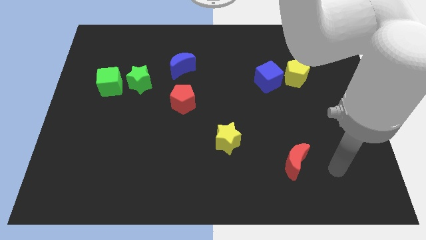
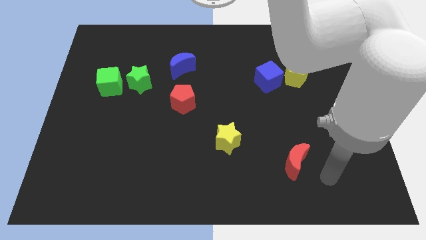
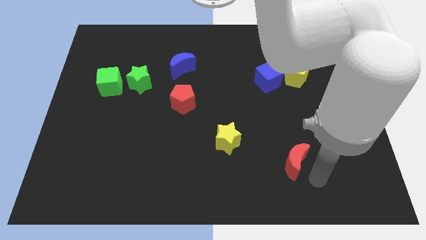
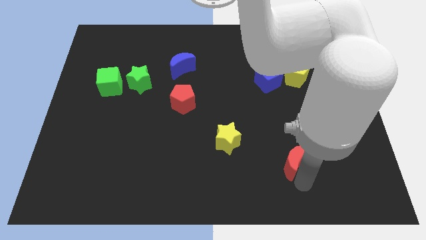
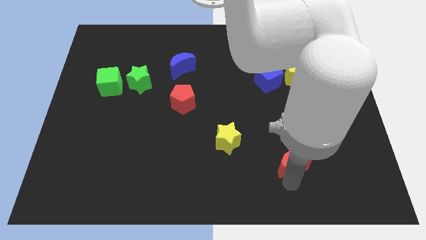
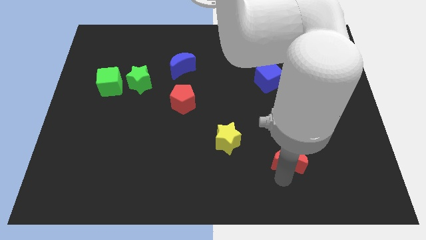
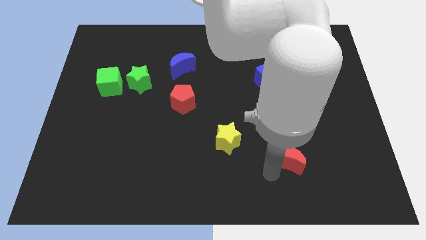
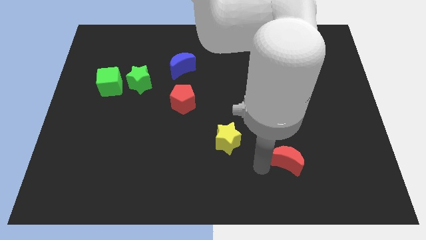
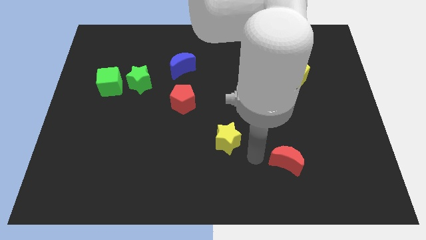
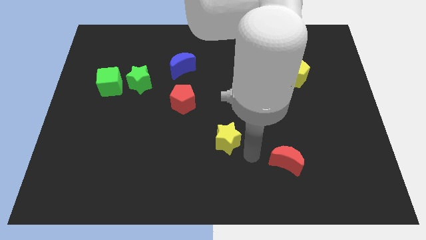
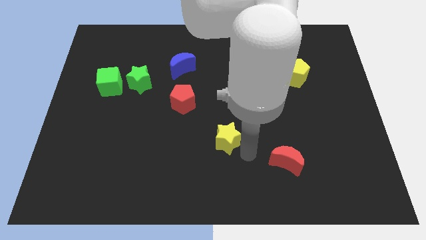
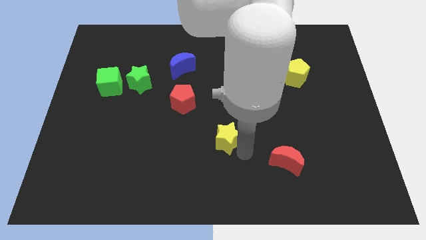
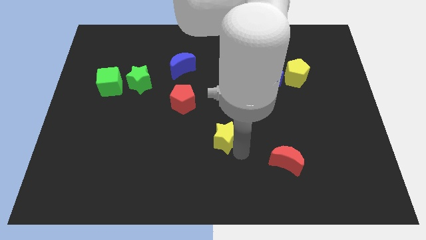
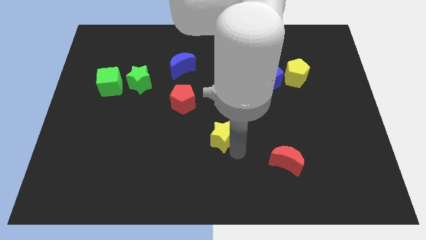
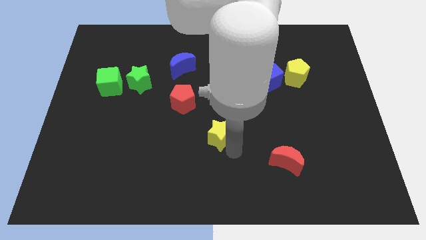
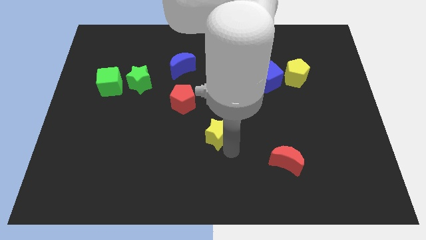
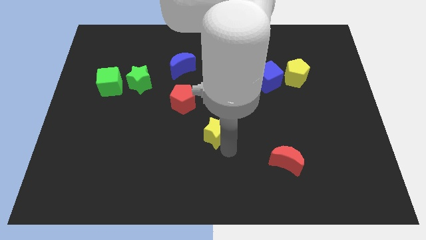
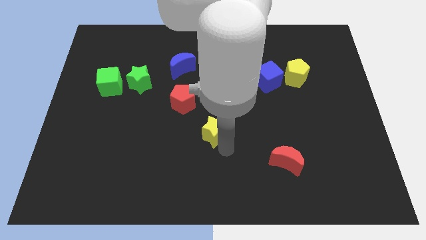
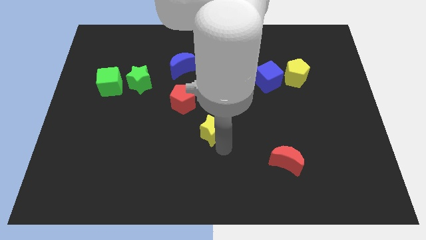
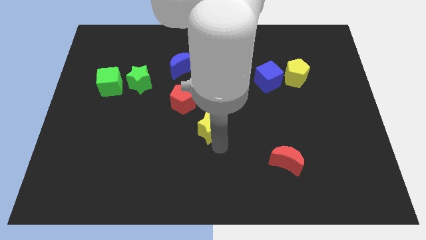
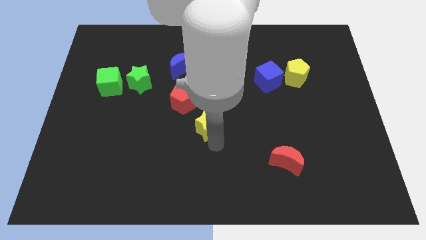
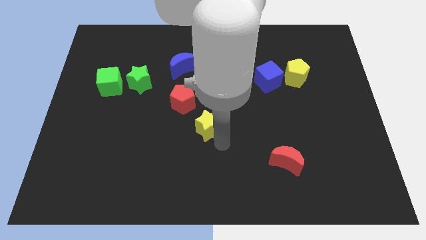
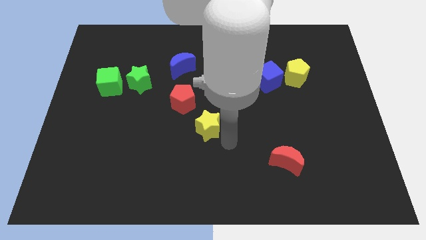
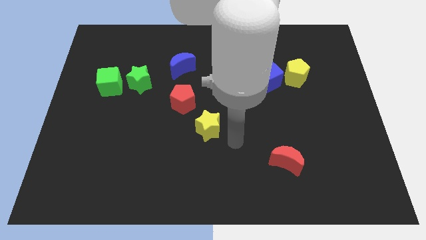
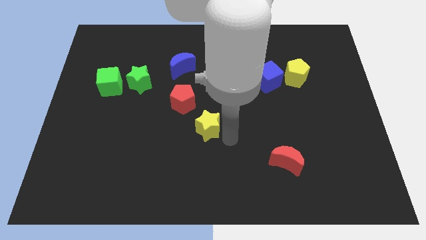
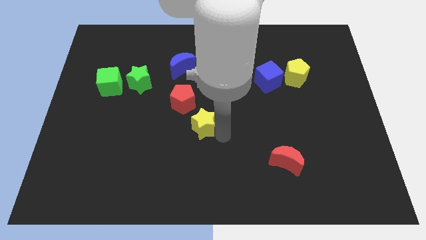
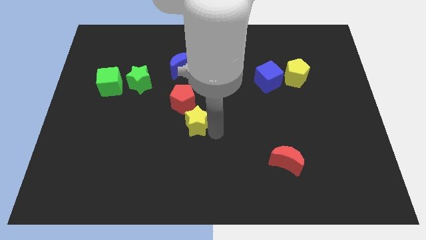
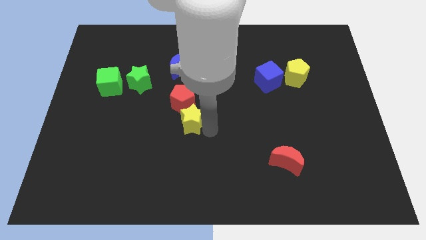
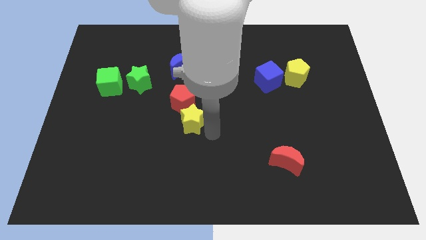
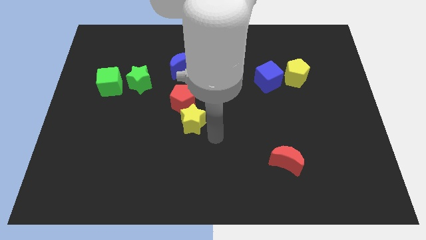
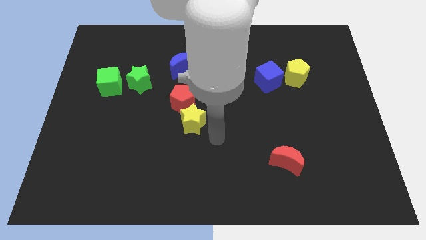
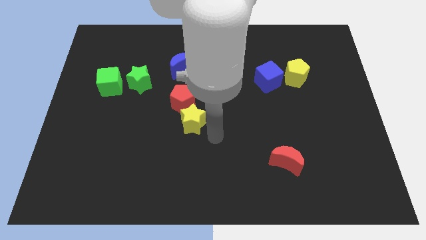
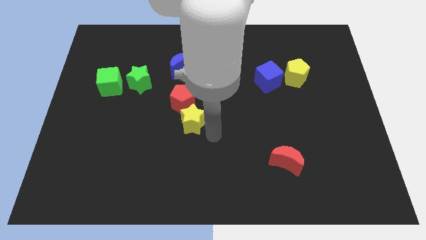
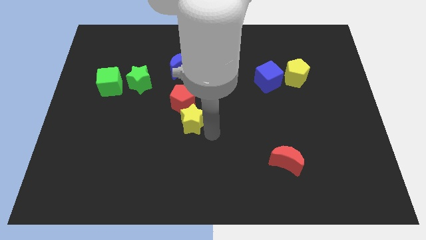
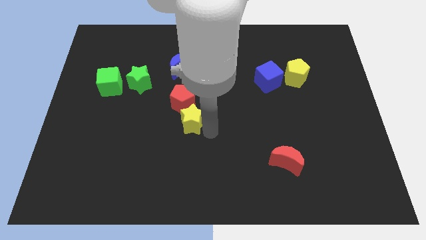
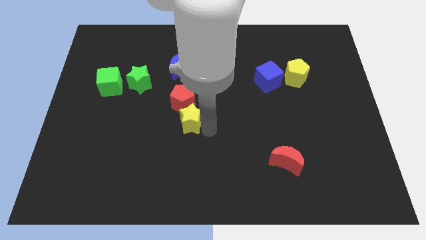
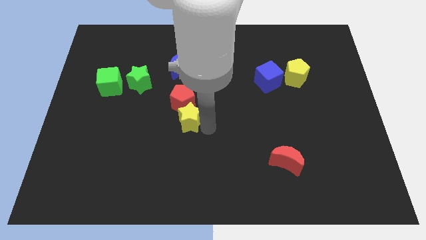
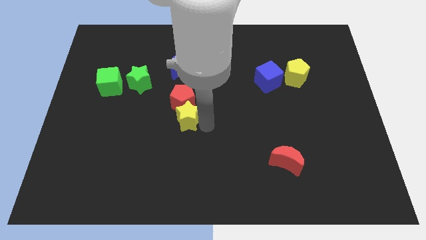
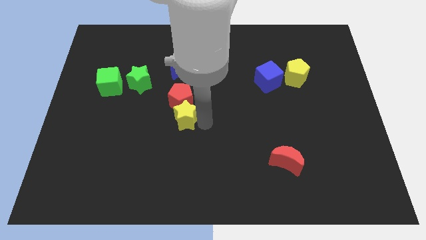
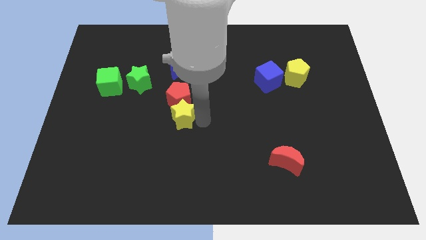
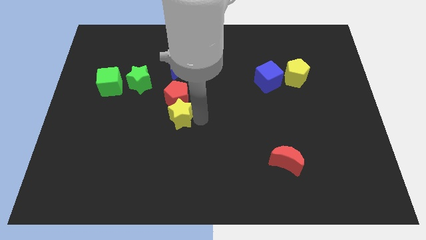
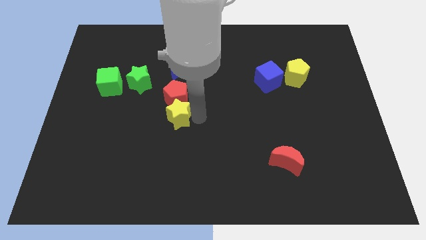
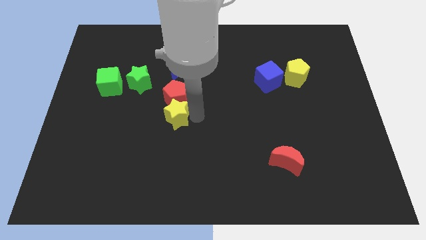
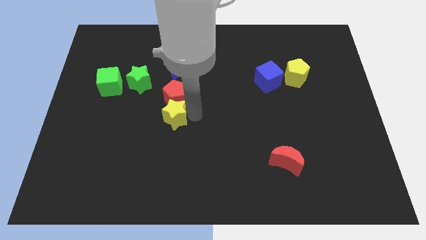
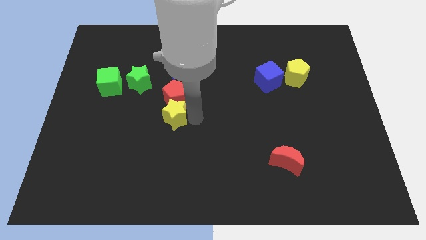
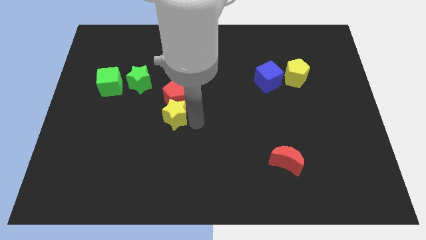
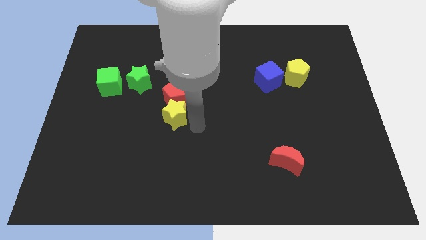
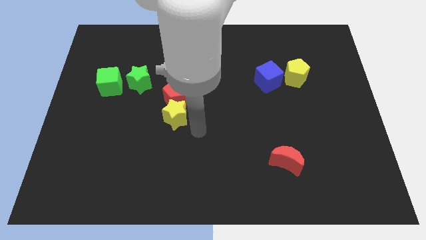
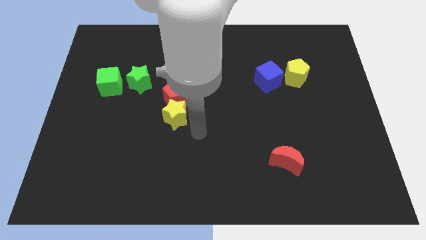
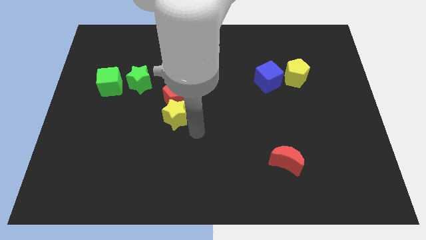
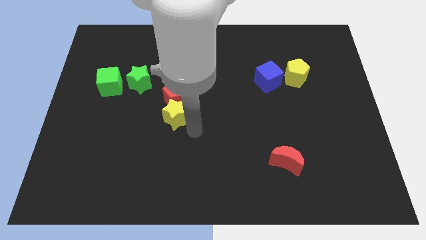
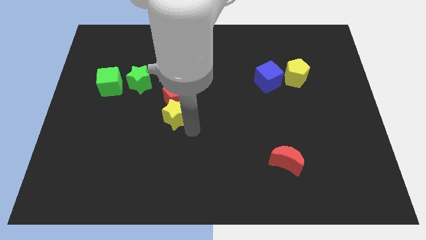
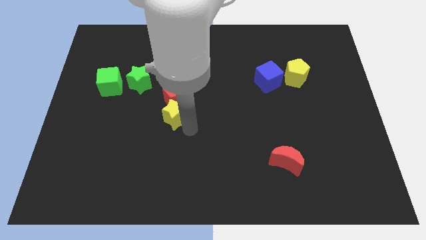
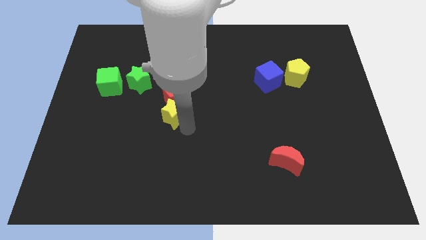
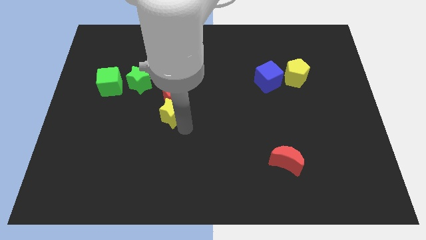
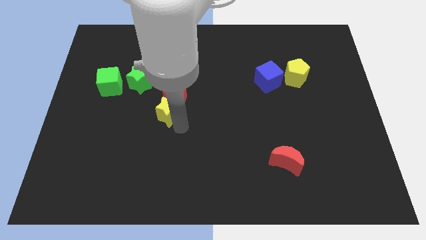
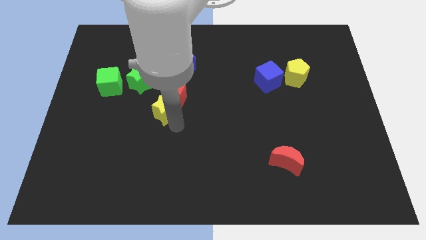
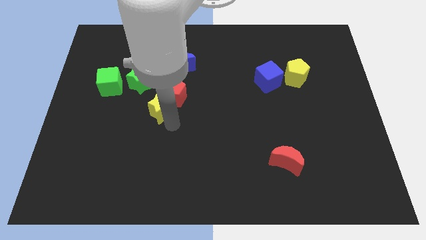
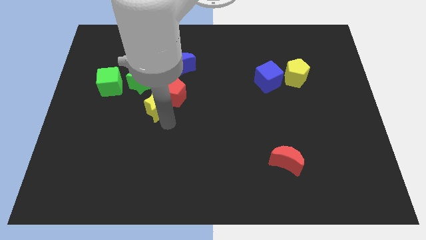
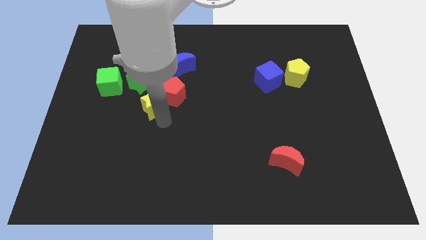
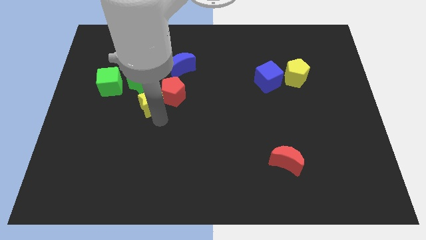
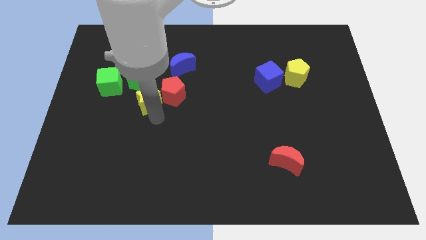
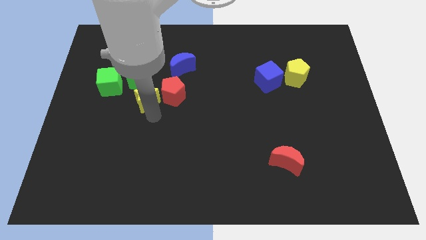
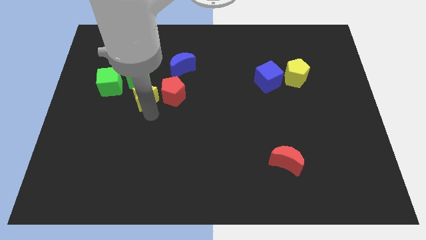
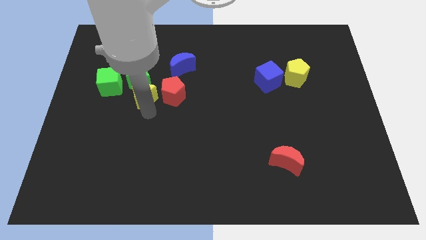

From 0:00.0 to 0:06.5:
slide the yellow star to the green star
